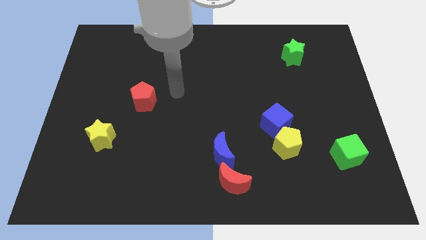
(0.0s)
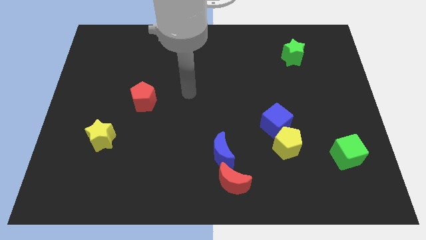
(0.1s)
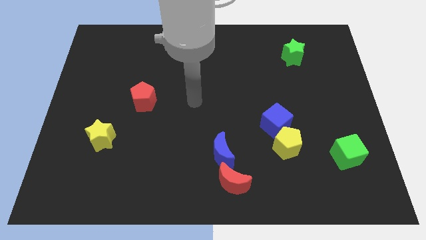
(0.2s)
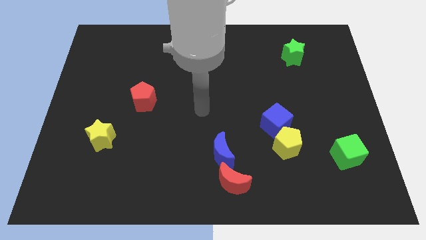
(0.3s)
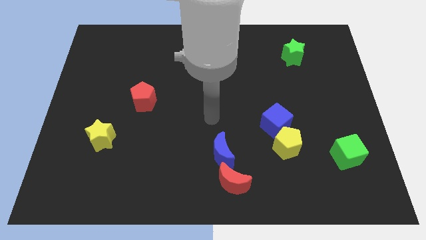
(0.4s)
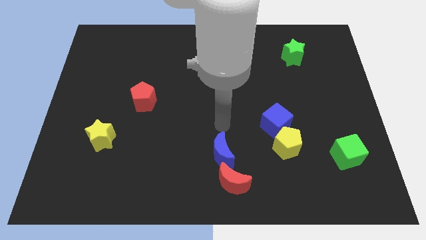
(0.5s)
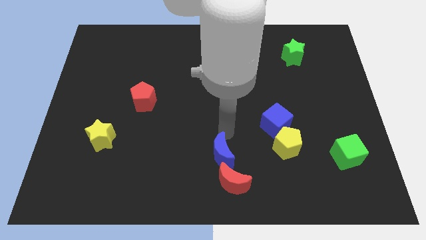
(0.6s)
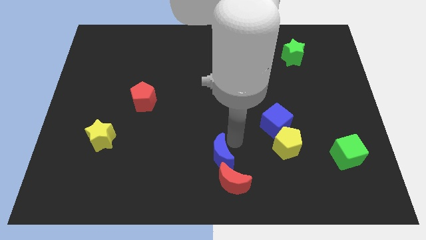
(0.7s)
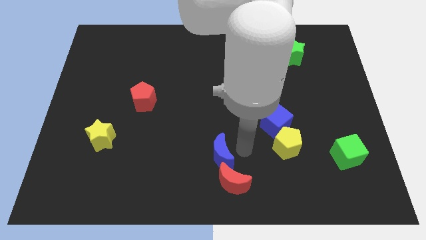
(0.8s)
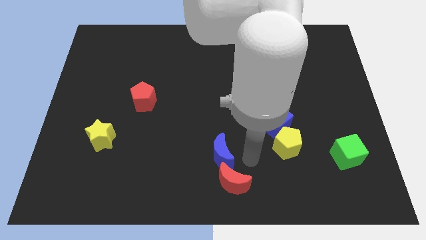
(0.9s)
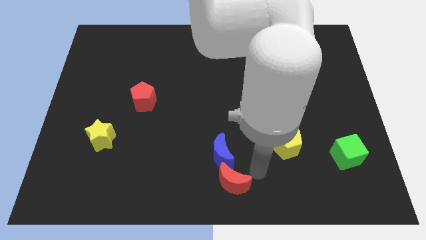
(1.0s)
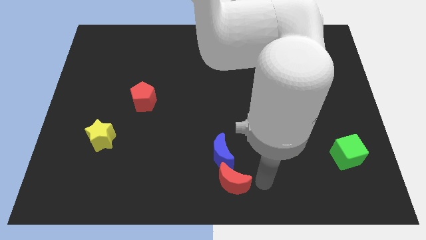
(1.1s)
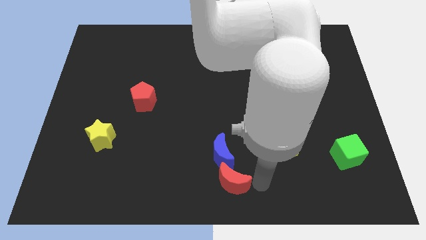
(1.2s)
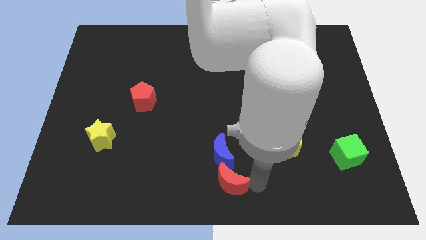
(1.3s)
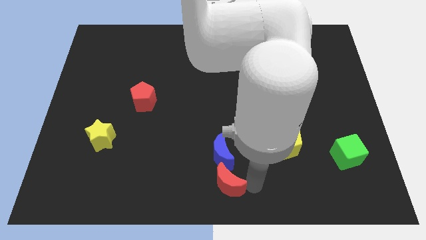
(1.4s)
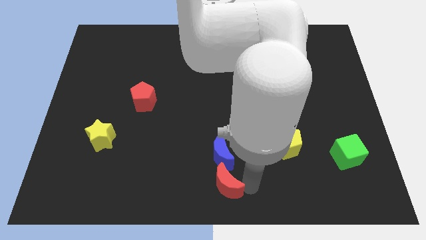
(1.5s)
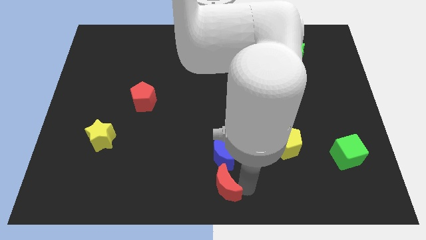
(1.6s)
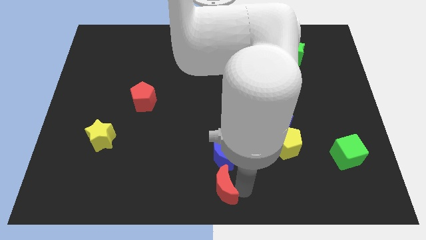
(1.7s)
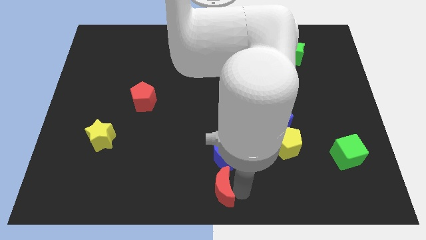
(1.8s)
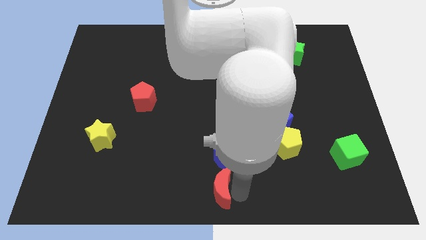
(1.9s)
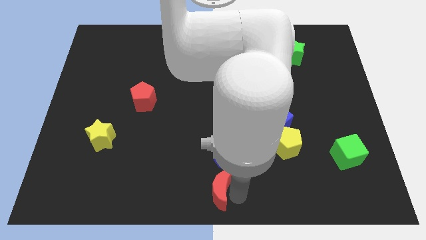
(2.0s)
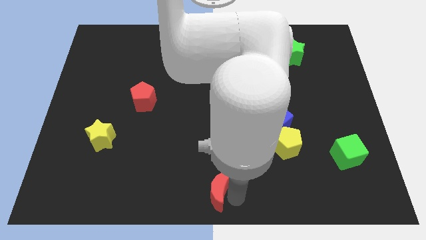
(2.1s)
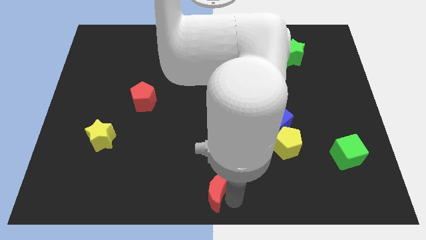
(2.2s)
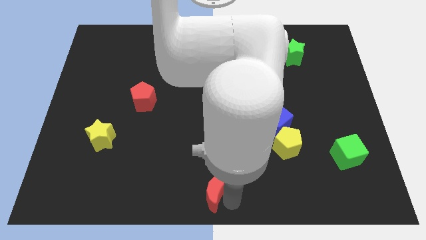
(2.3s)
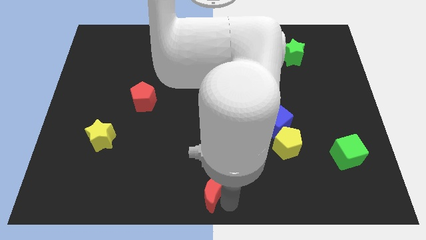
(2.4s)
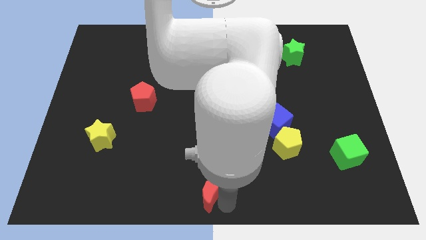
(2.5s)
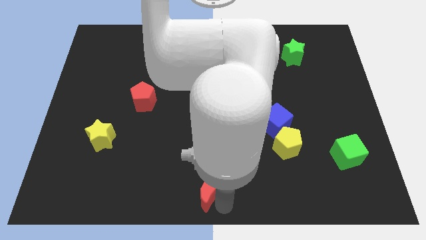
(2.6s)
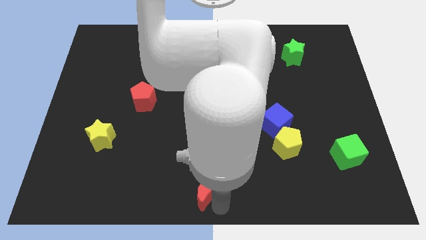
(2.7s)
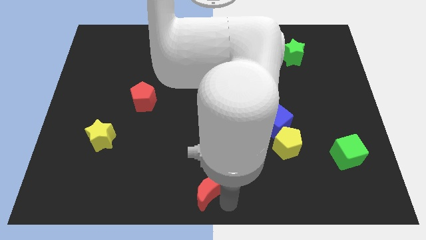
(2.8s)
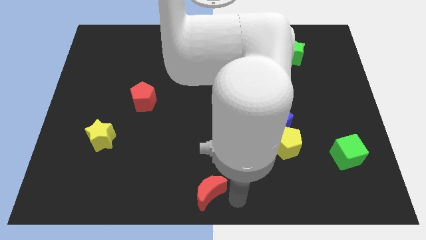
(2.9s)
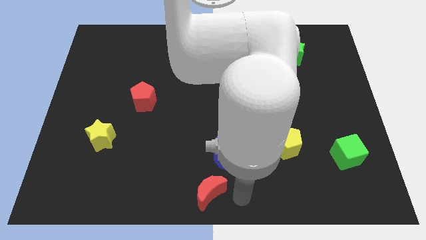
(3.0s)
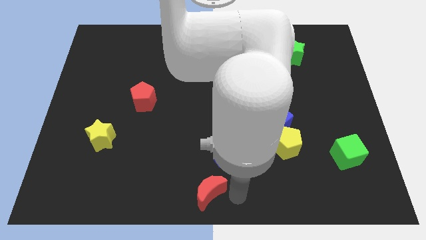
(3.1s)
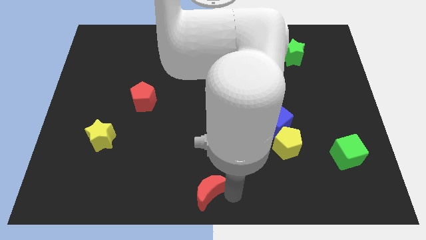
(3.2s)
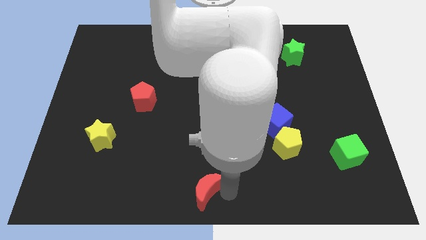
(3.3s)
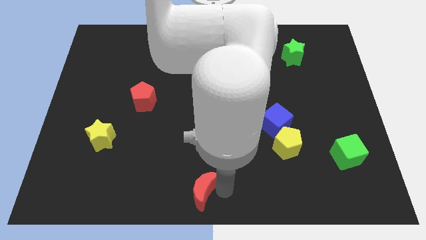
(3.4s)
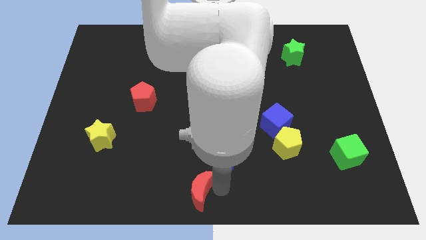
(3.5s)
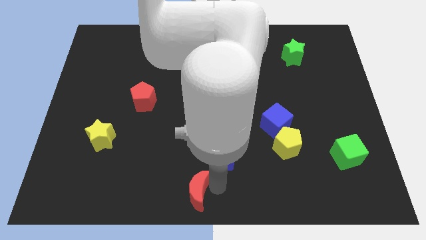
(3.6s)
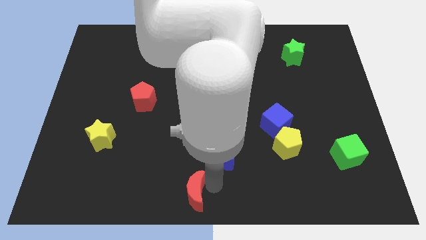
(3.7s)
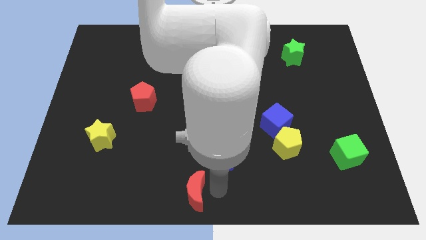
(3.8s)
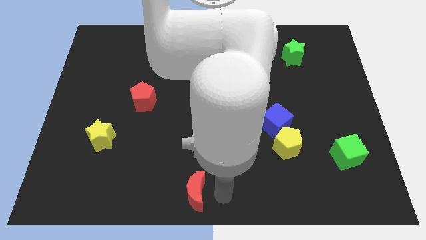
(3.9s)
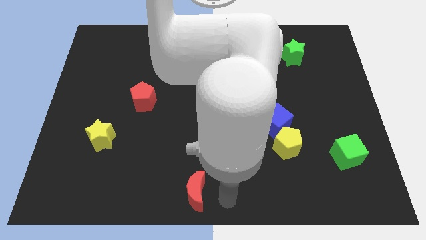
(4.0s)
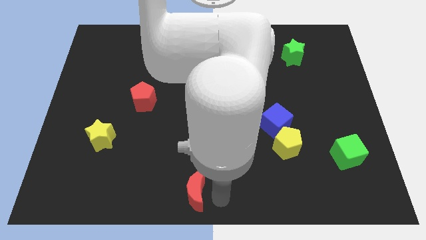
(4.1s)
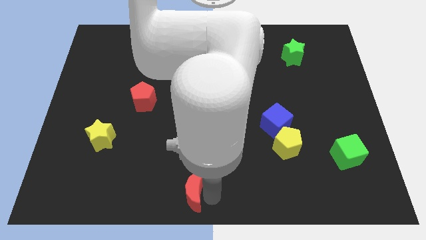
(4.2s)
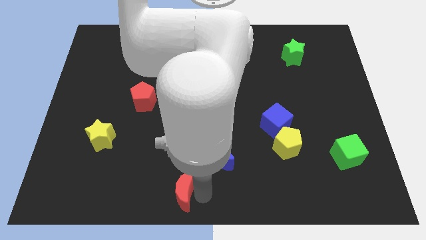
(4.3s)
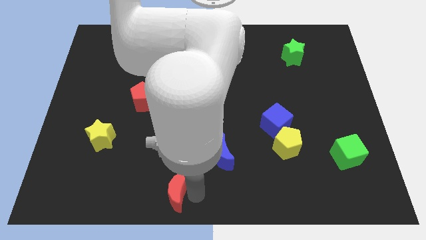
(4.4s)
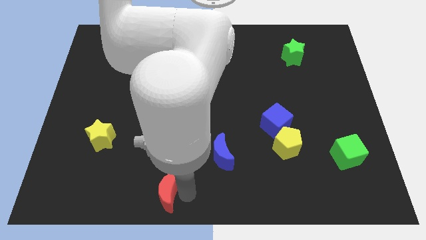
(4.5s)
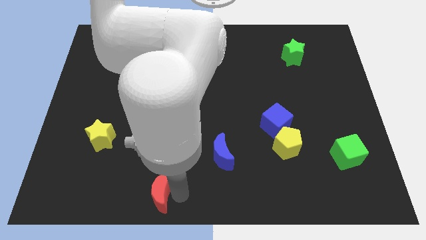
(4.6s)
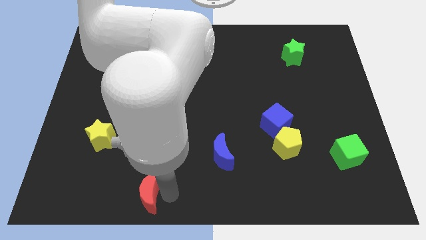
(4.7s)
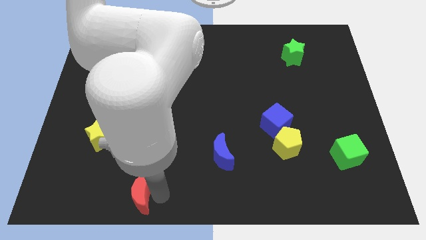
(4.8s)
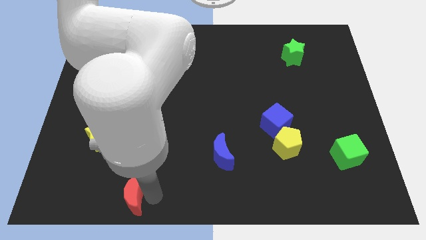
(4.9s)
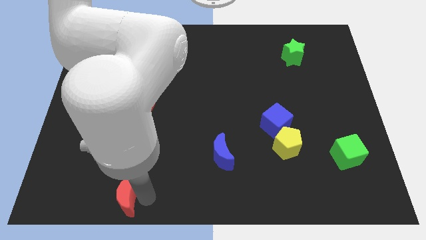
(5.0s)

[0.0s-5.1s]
push the red moon left

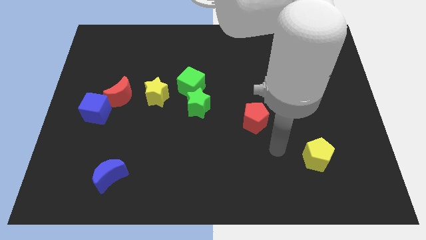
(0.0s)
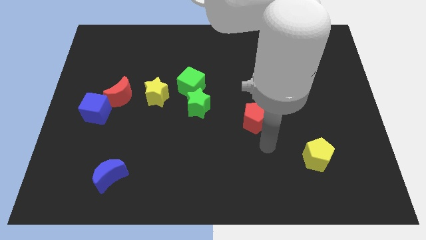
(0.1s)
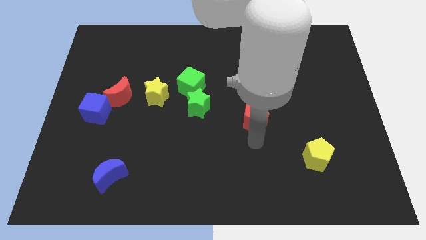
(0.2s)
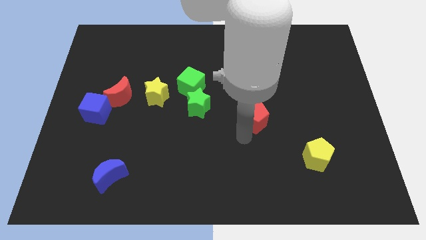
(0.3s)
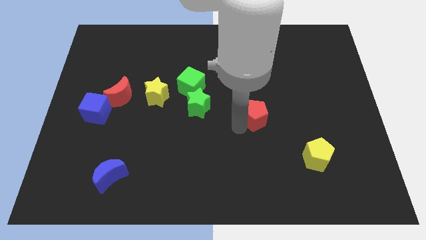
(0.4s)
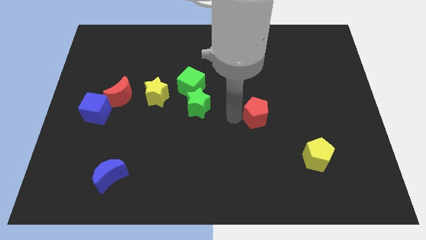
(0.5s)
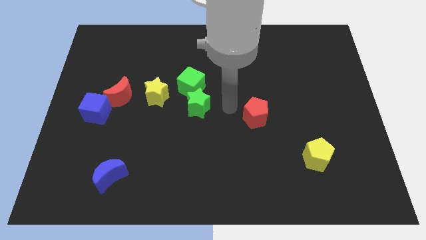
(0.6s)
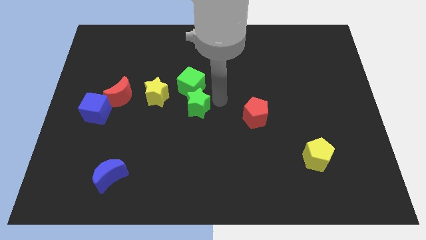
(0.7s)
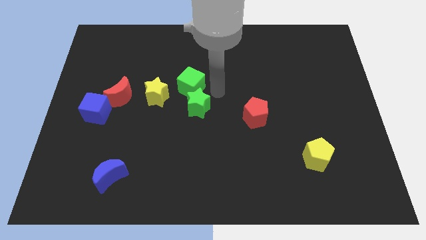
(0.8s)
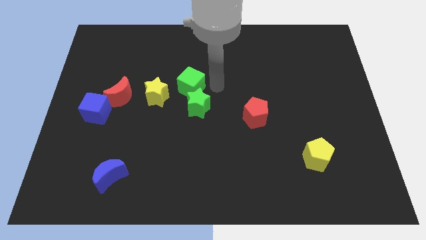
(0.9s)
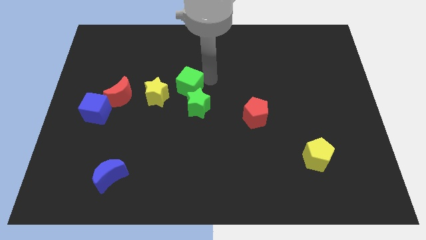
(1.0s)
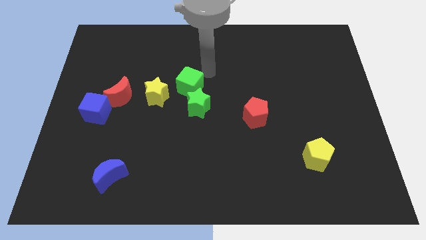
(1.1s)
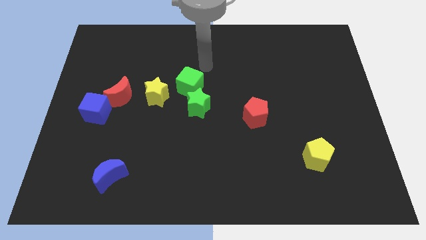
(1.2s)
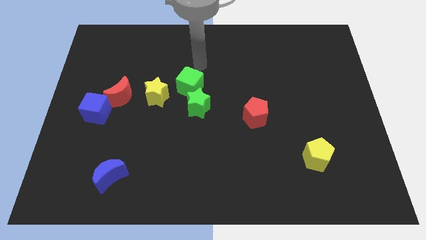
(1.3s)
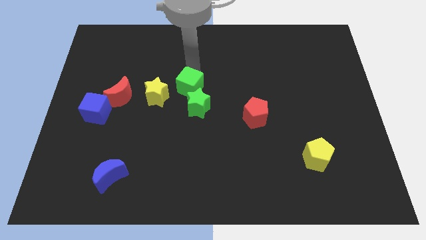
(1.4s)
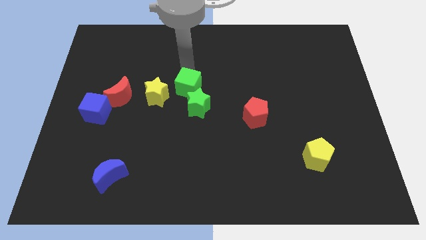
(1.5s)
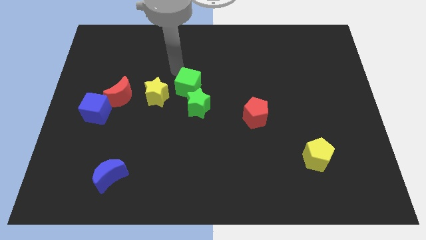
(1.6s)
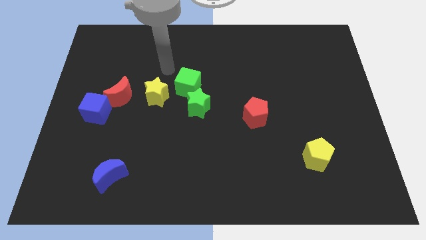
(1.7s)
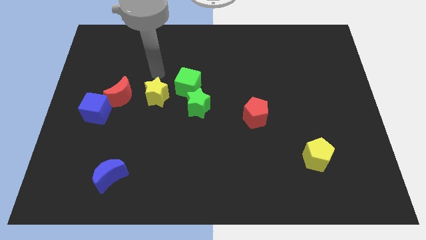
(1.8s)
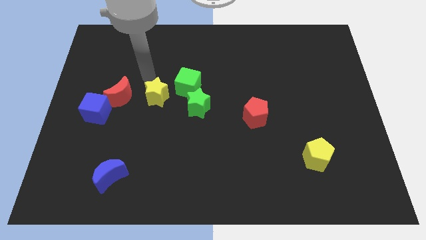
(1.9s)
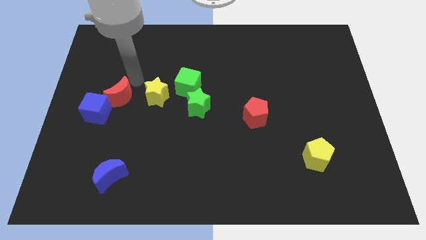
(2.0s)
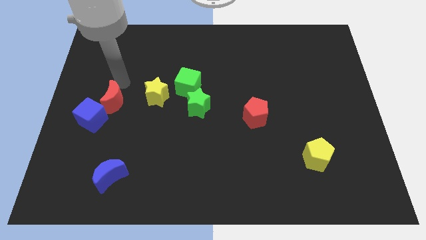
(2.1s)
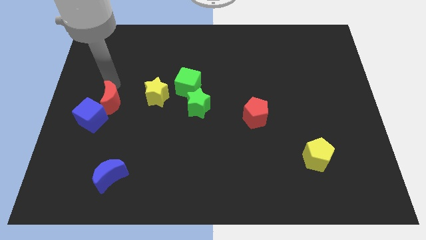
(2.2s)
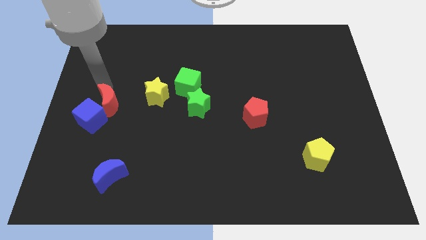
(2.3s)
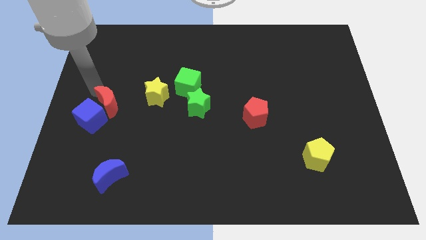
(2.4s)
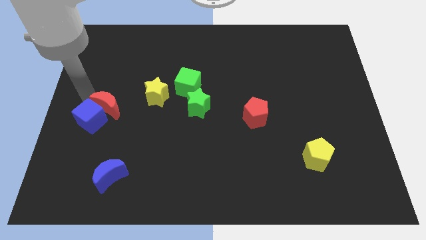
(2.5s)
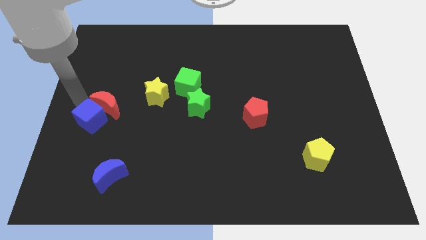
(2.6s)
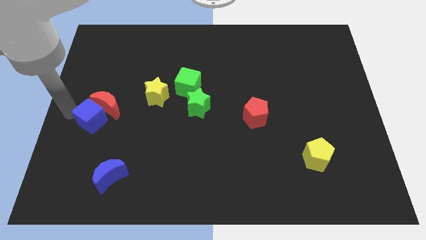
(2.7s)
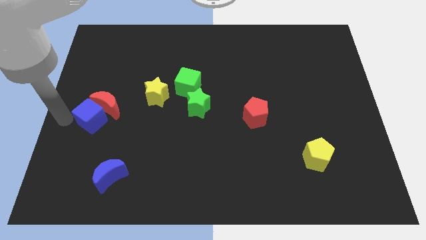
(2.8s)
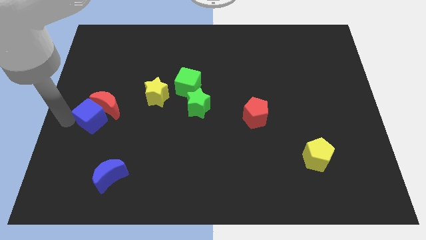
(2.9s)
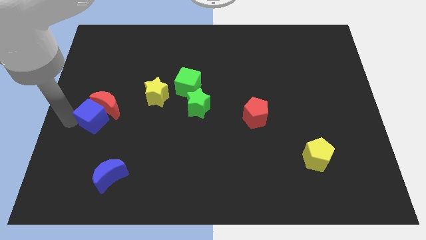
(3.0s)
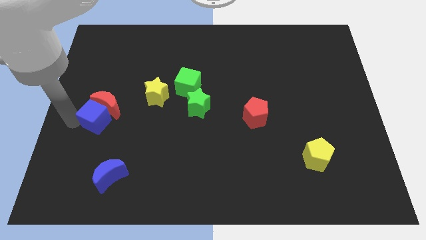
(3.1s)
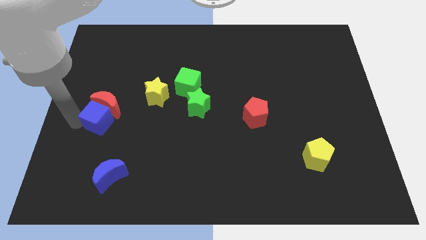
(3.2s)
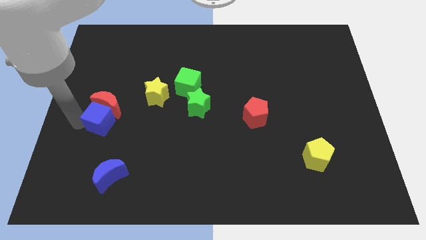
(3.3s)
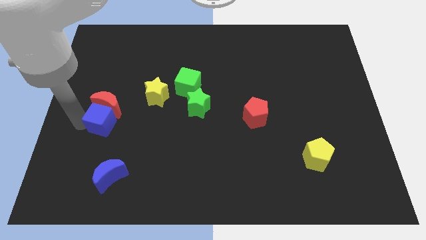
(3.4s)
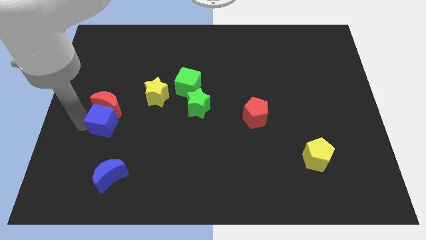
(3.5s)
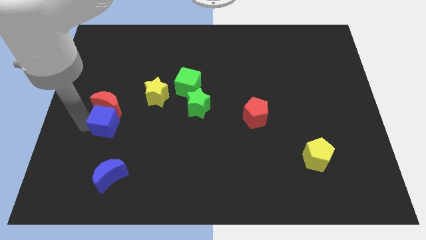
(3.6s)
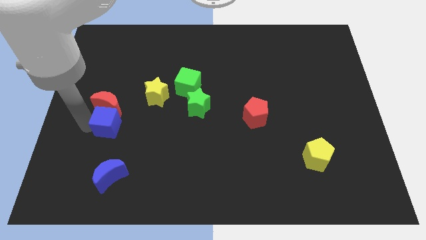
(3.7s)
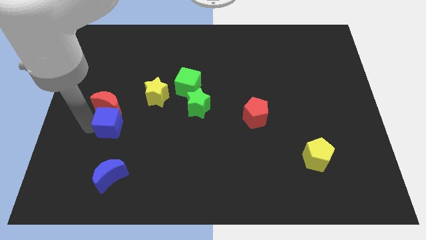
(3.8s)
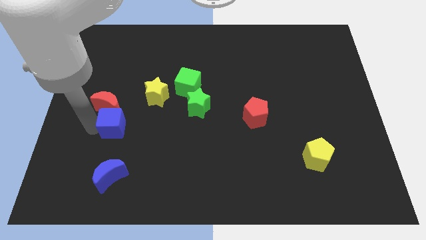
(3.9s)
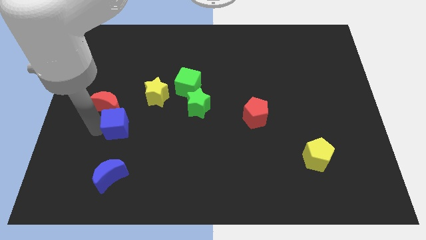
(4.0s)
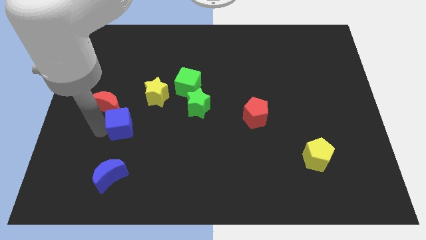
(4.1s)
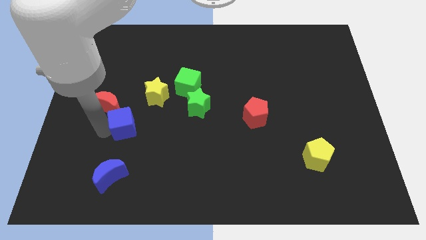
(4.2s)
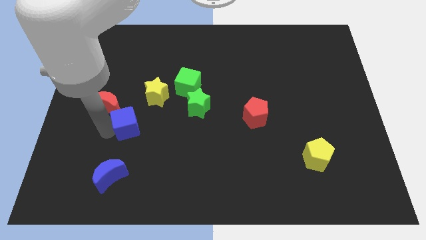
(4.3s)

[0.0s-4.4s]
slightly move the blue cube to the right
